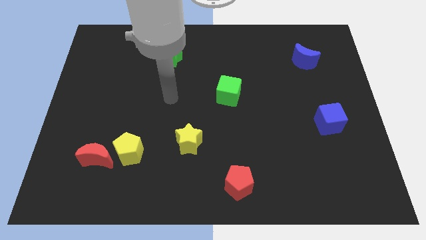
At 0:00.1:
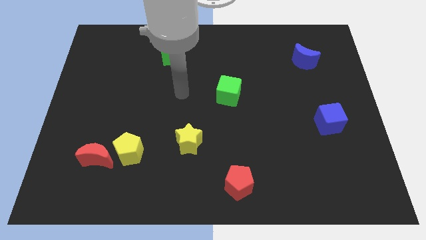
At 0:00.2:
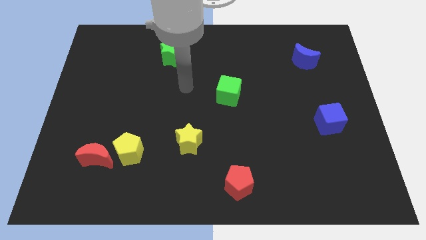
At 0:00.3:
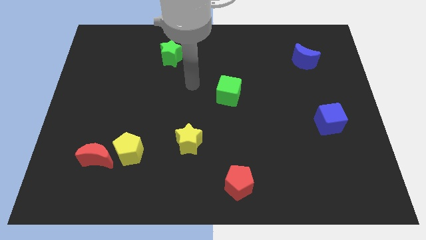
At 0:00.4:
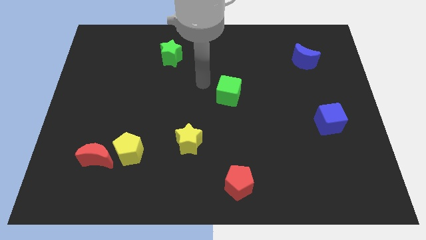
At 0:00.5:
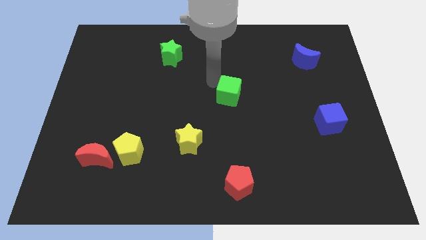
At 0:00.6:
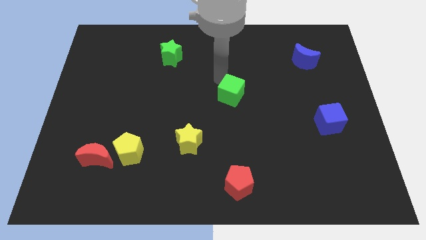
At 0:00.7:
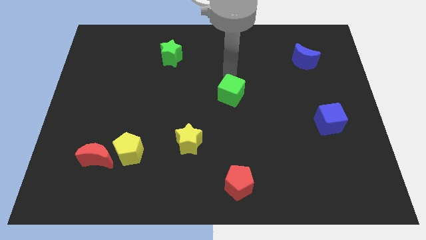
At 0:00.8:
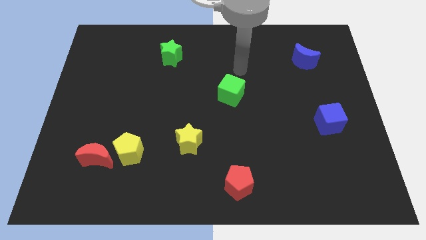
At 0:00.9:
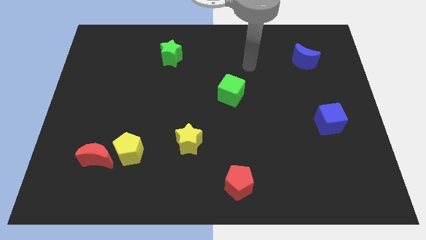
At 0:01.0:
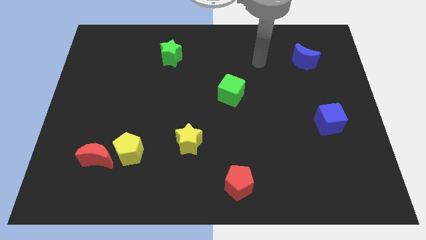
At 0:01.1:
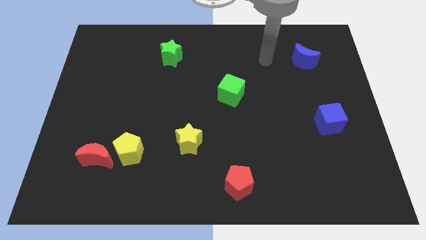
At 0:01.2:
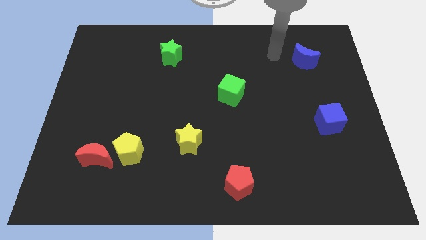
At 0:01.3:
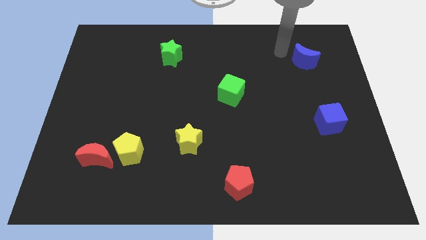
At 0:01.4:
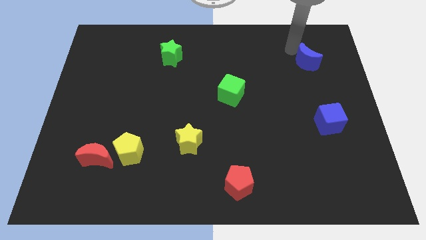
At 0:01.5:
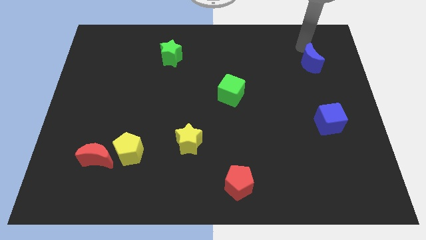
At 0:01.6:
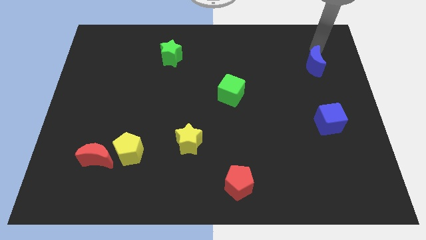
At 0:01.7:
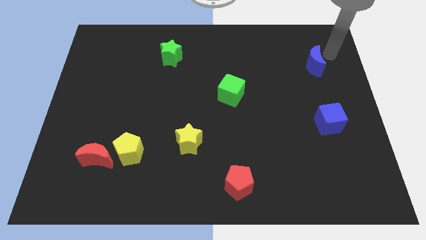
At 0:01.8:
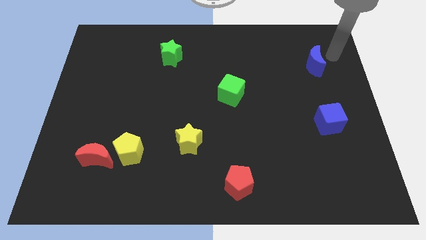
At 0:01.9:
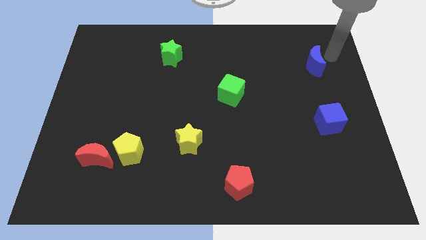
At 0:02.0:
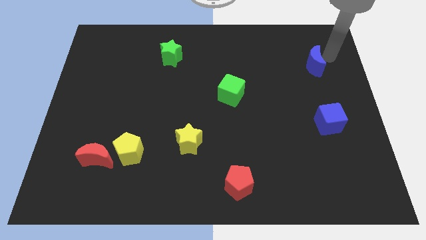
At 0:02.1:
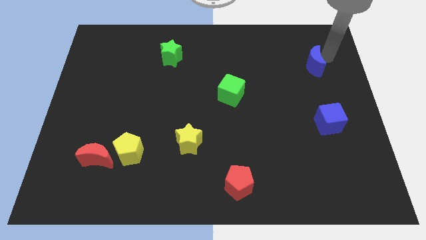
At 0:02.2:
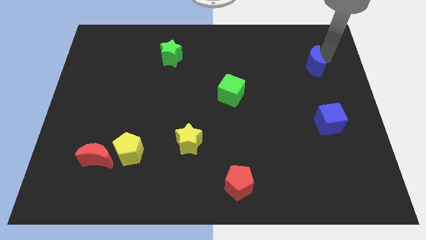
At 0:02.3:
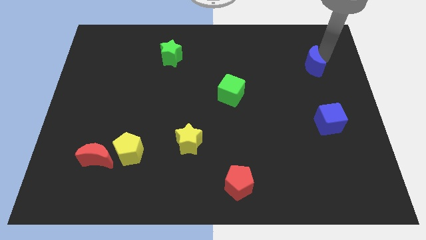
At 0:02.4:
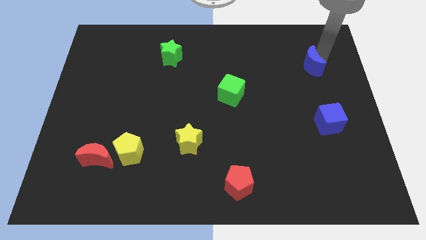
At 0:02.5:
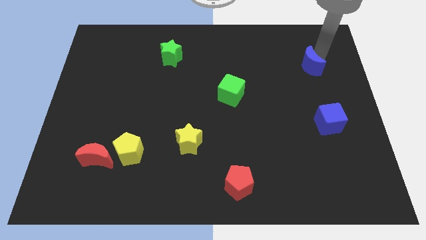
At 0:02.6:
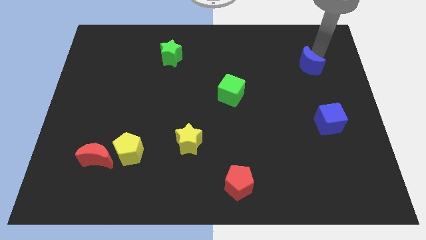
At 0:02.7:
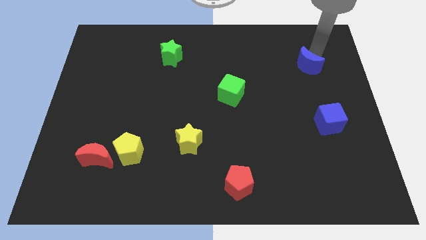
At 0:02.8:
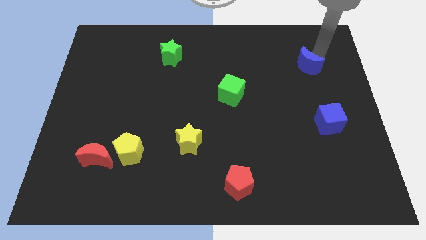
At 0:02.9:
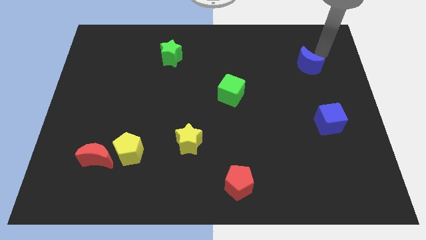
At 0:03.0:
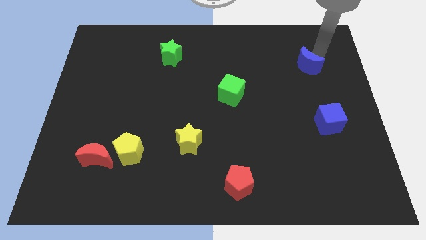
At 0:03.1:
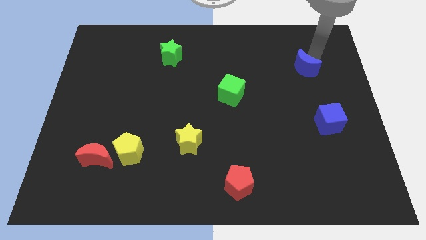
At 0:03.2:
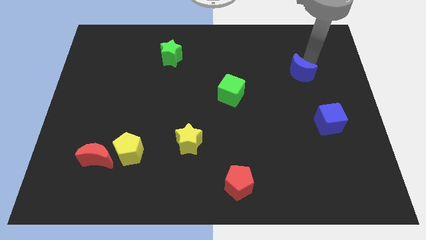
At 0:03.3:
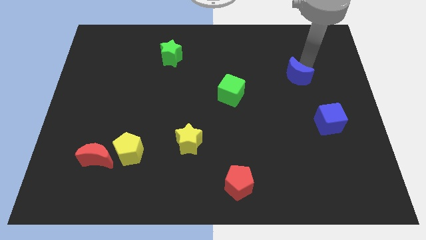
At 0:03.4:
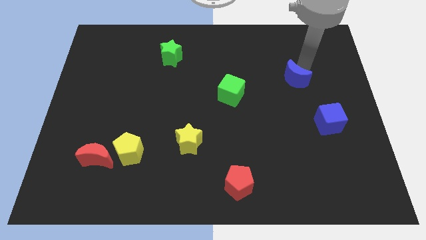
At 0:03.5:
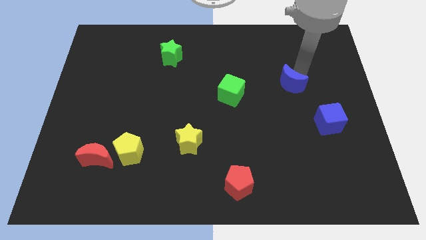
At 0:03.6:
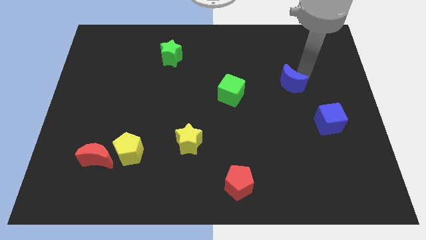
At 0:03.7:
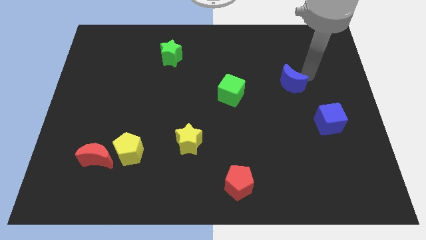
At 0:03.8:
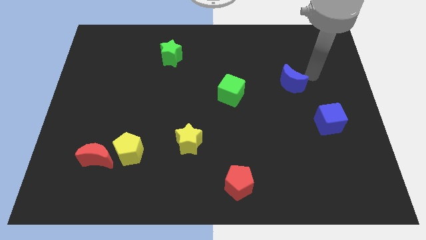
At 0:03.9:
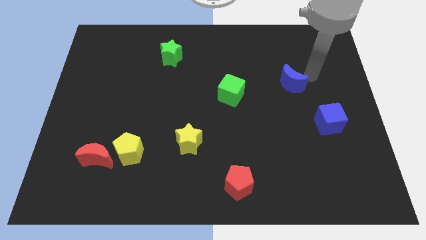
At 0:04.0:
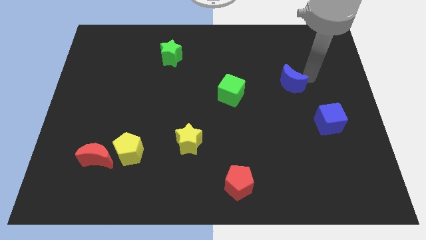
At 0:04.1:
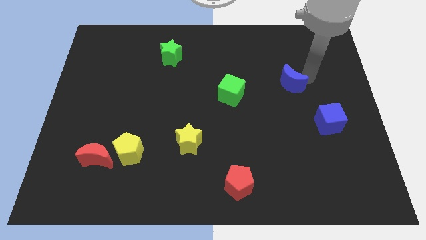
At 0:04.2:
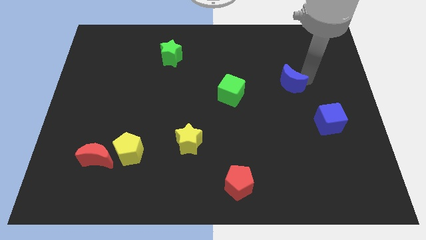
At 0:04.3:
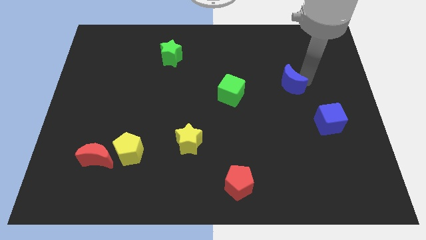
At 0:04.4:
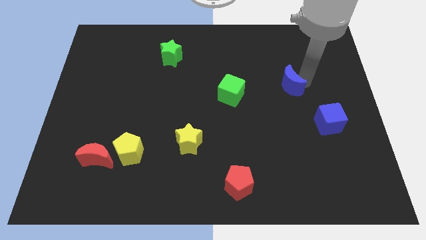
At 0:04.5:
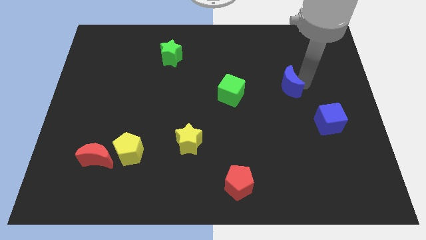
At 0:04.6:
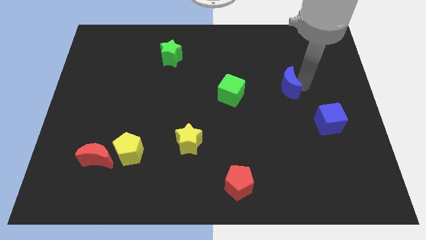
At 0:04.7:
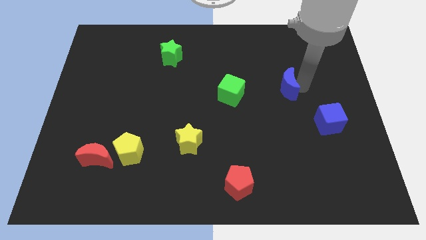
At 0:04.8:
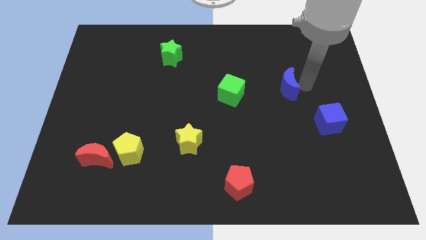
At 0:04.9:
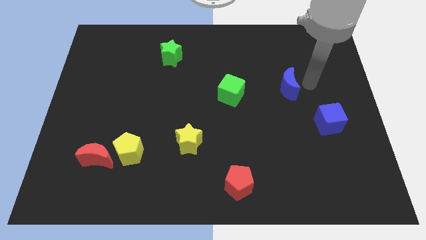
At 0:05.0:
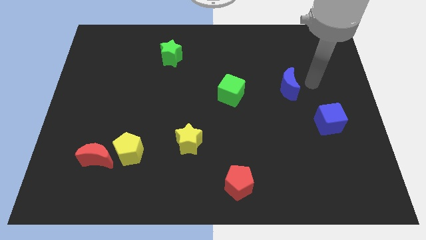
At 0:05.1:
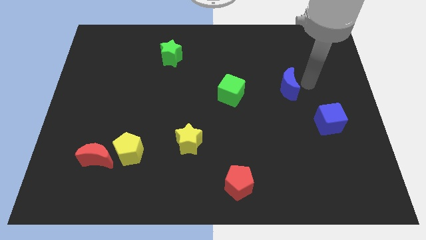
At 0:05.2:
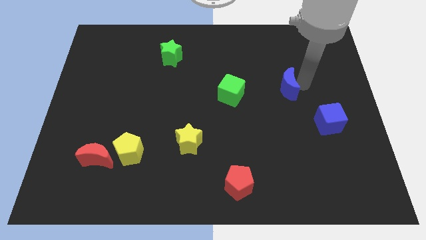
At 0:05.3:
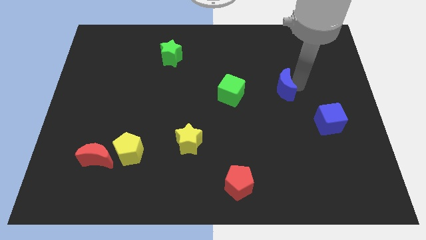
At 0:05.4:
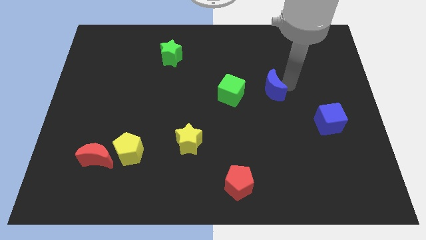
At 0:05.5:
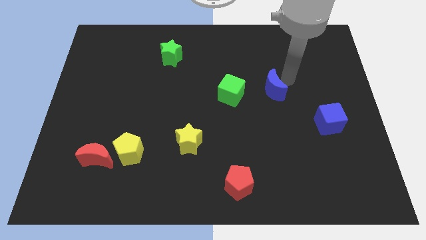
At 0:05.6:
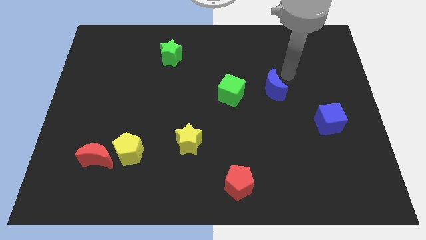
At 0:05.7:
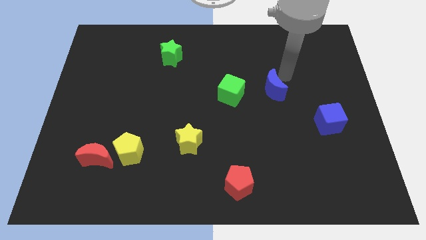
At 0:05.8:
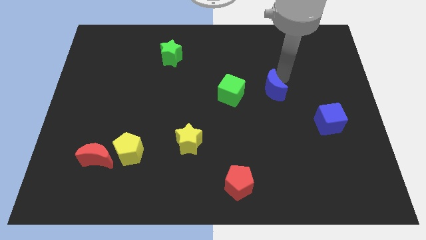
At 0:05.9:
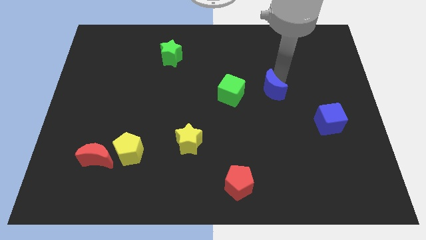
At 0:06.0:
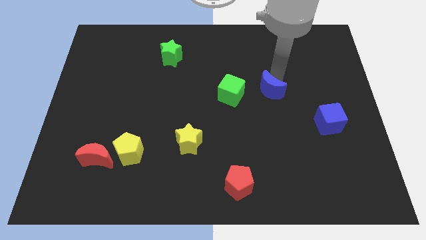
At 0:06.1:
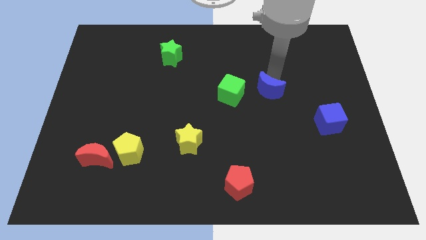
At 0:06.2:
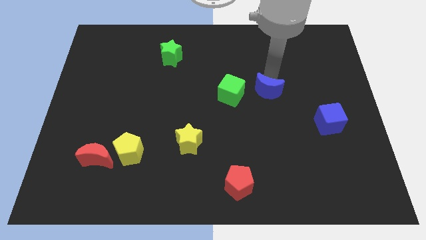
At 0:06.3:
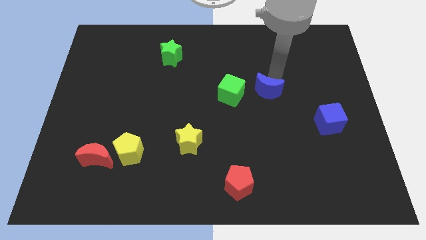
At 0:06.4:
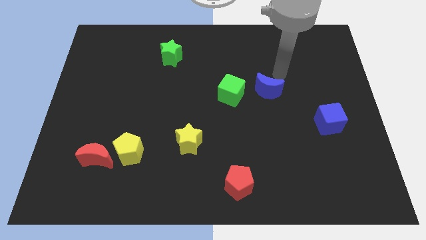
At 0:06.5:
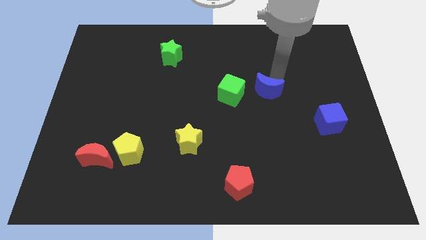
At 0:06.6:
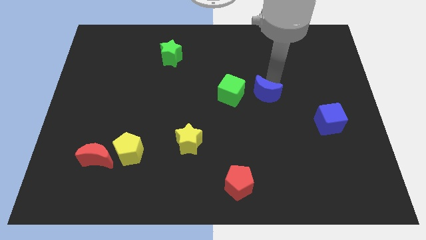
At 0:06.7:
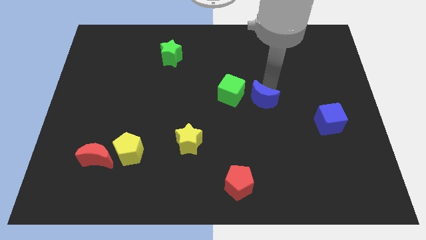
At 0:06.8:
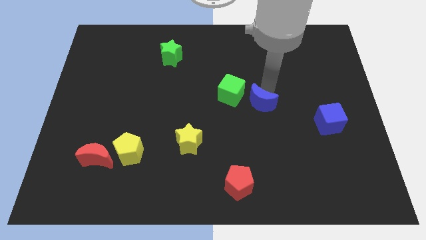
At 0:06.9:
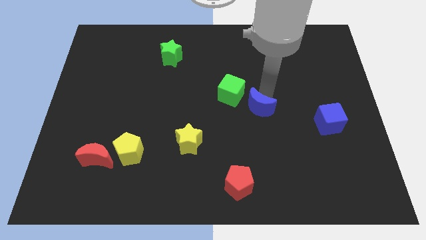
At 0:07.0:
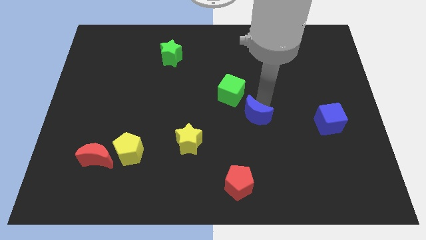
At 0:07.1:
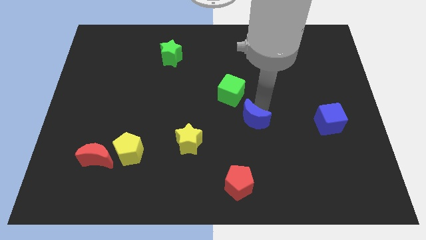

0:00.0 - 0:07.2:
push the blue moon below the green cube
